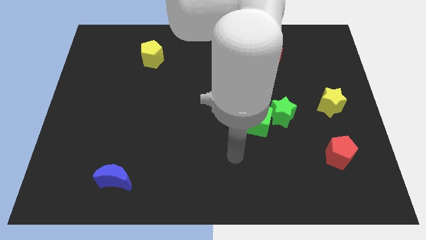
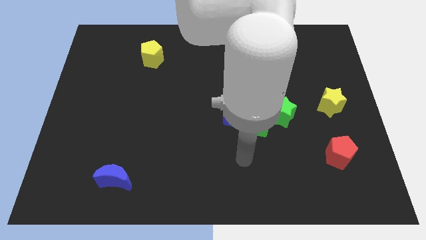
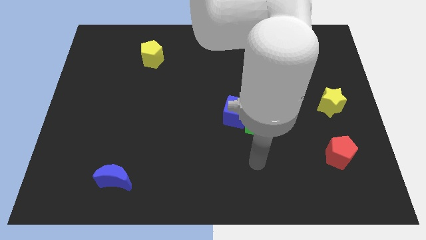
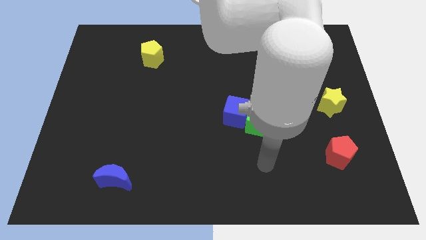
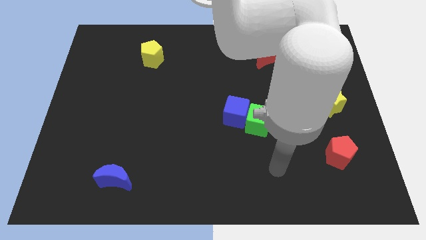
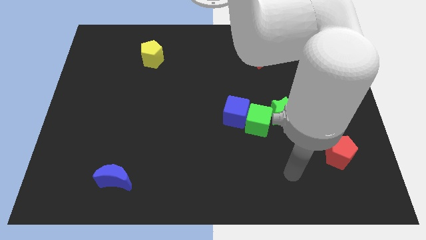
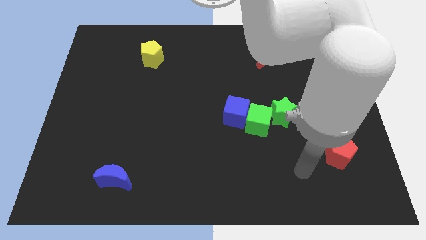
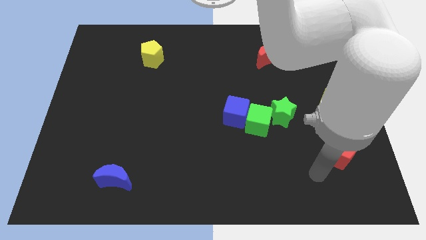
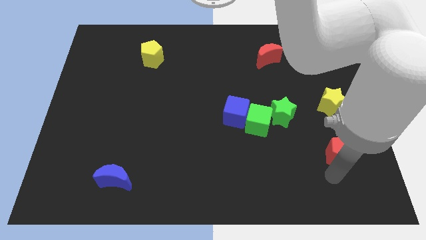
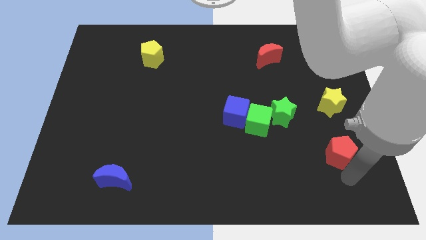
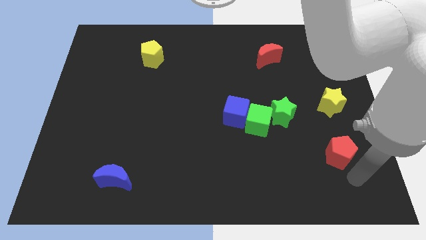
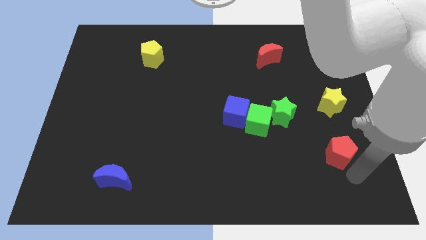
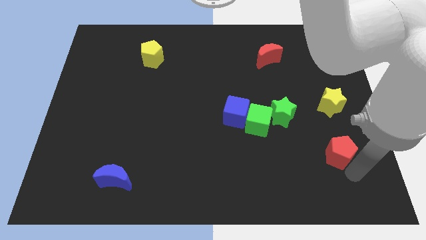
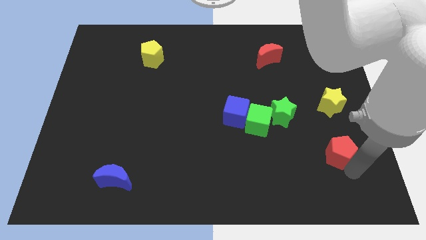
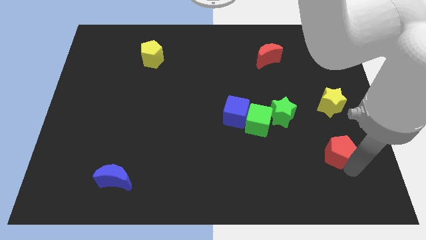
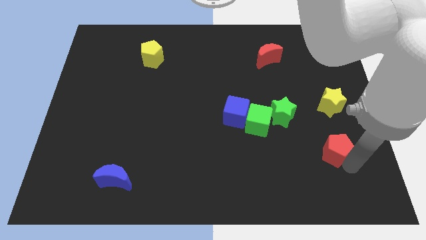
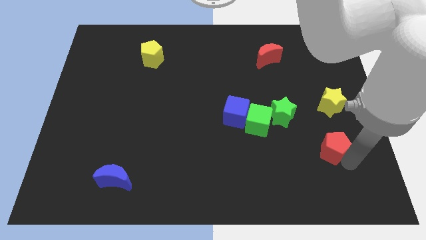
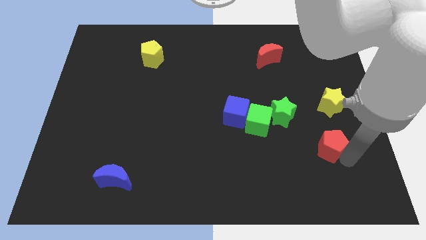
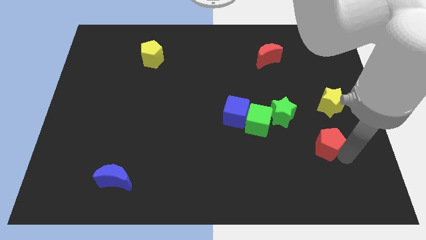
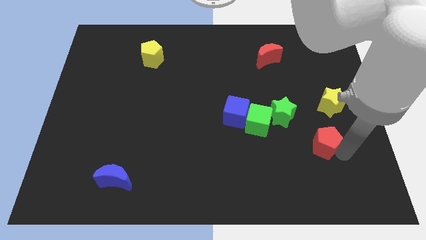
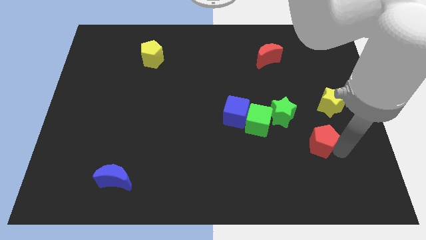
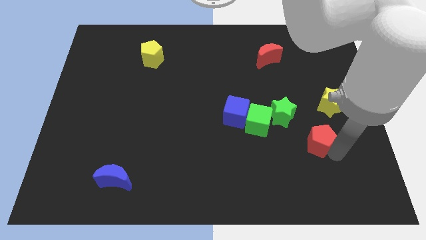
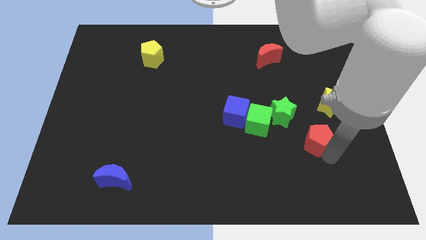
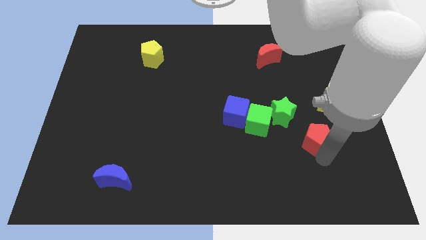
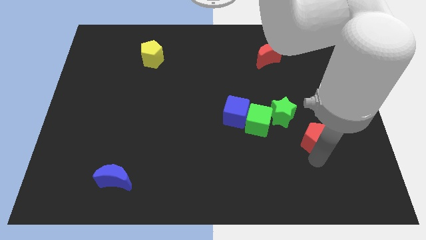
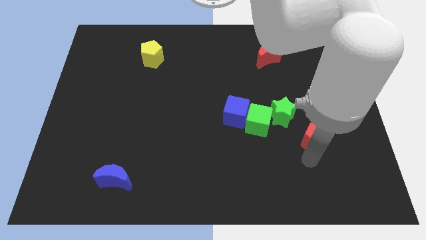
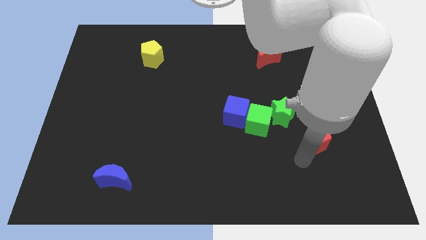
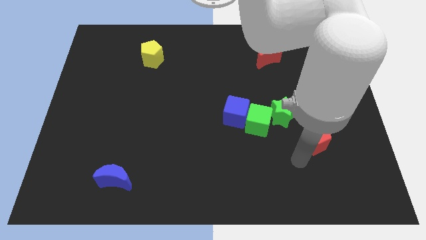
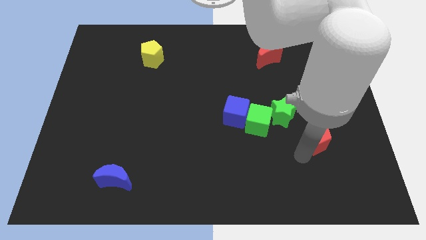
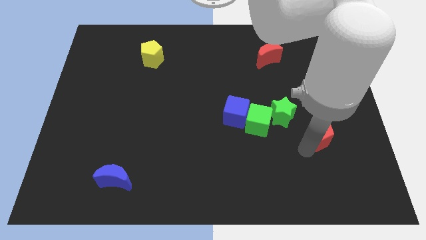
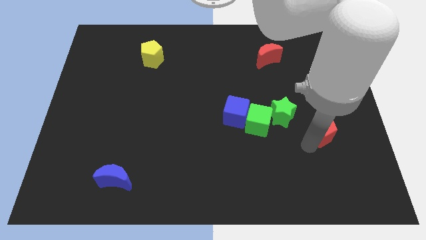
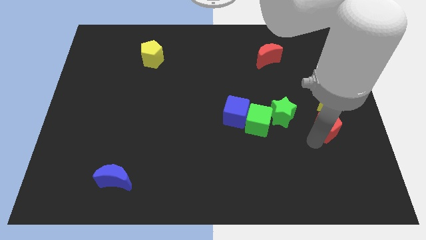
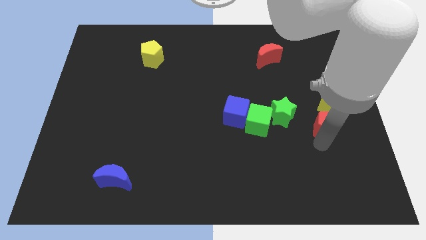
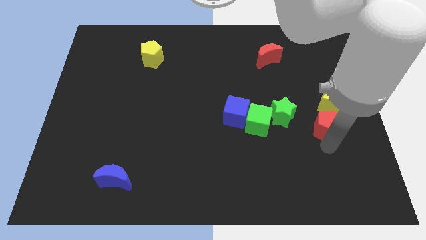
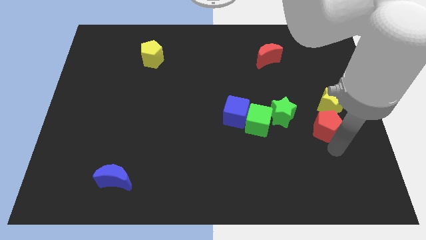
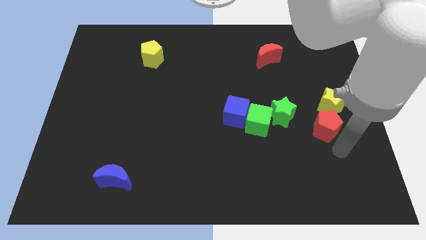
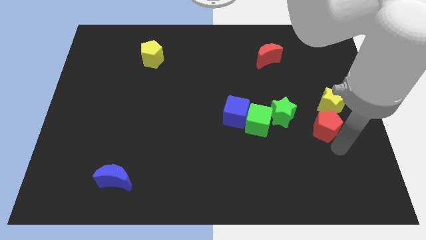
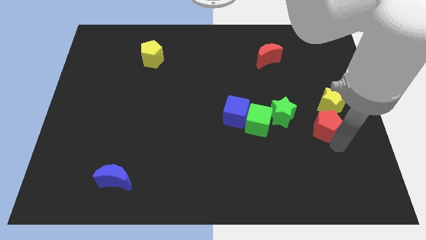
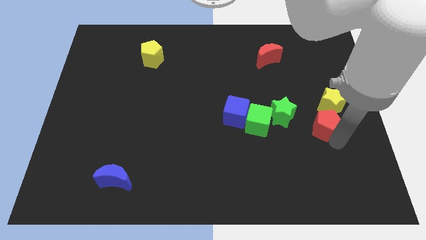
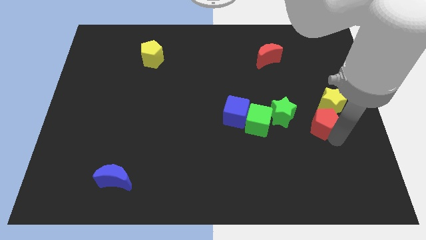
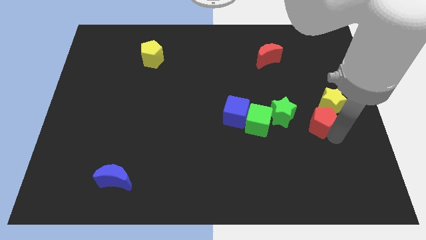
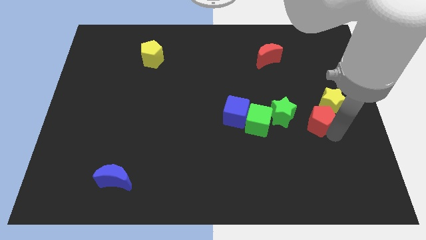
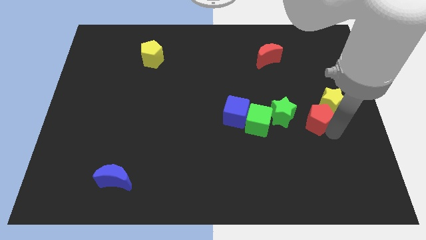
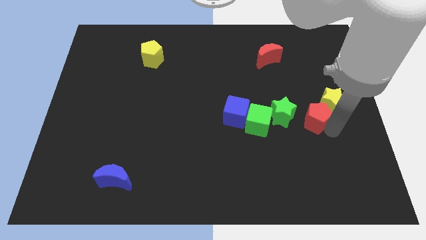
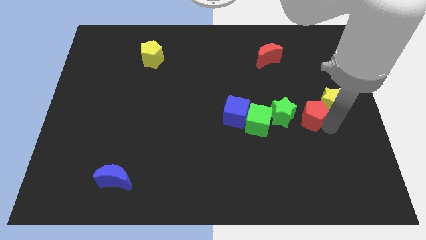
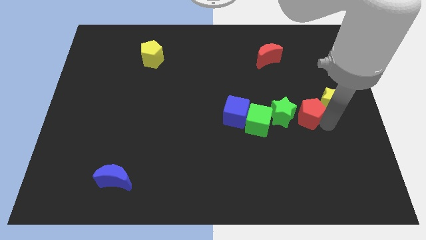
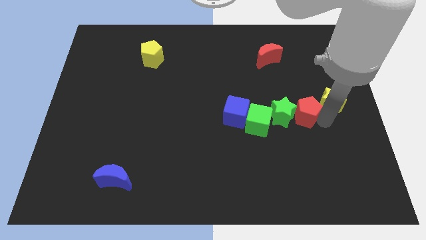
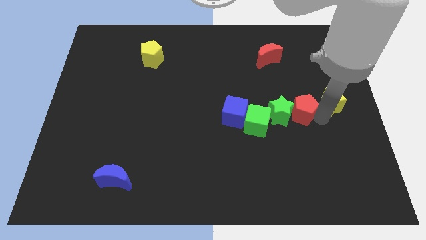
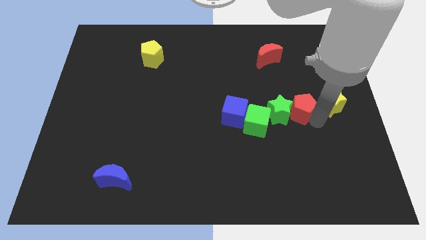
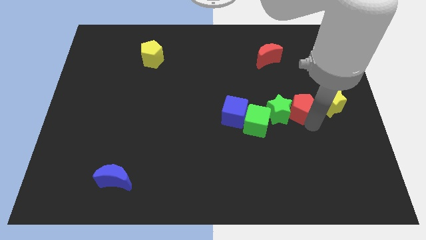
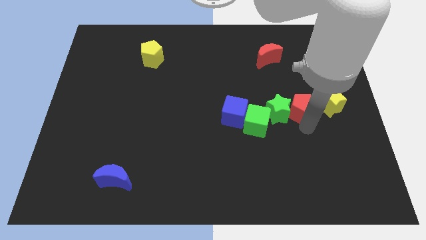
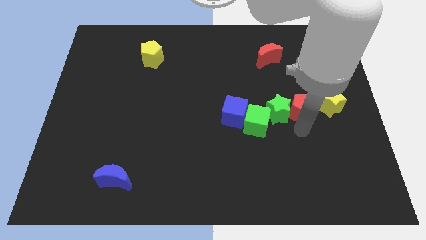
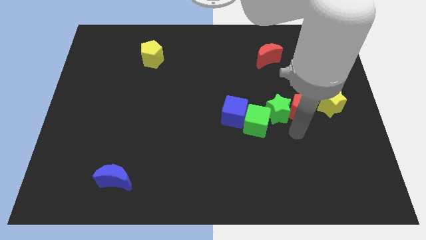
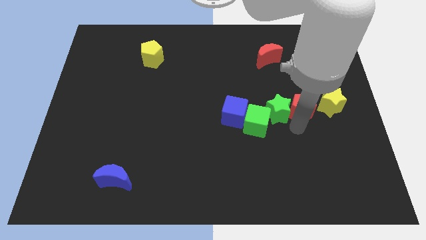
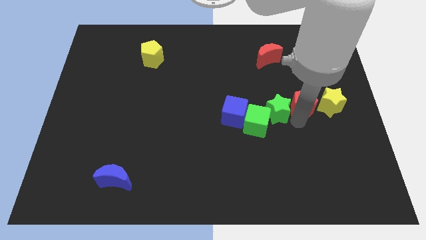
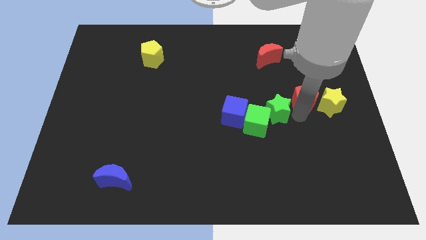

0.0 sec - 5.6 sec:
push the red pentagon diagonally up and to the left of the yellow star

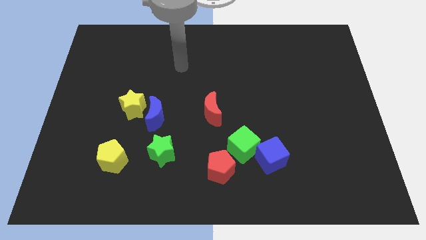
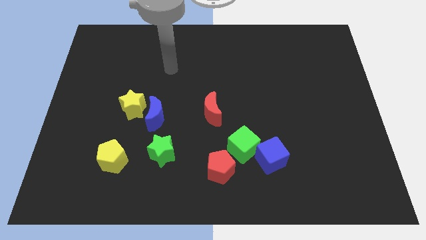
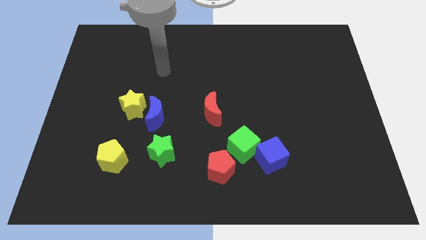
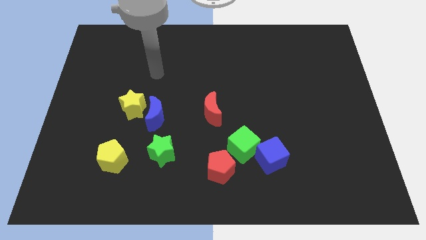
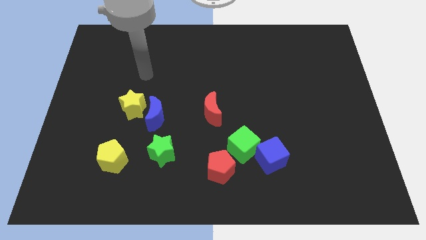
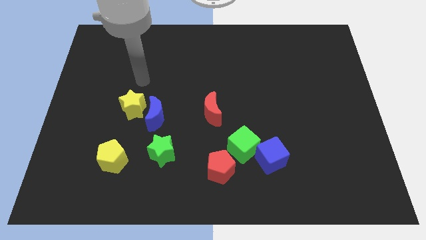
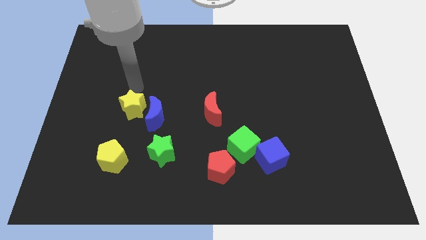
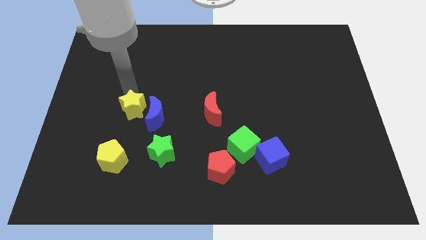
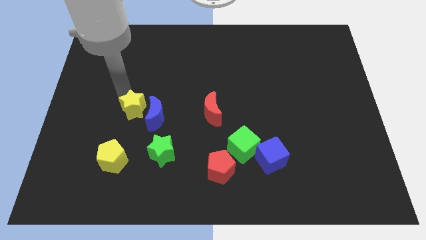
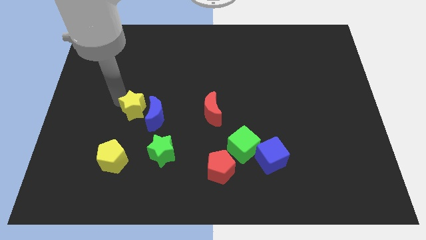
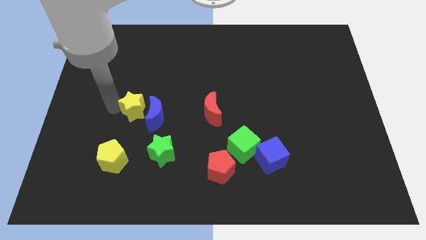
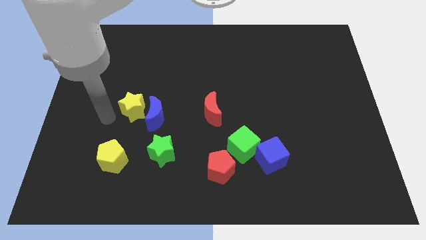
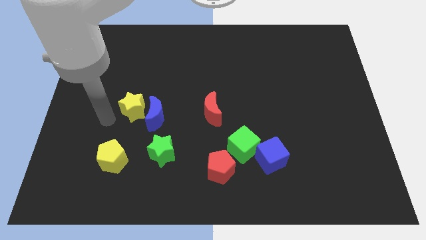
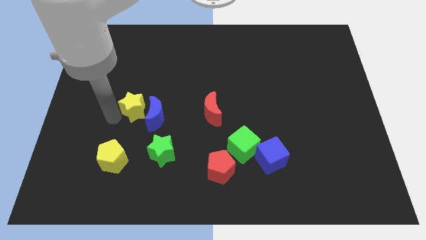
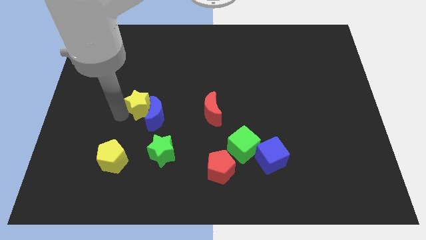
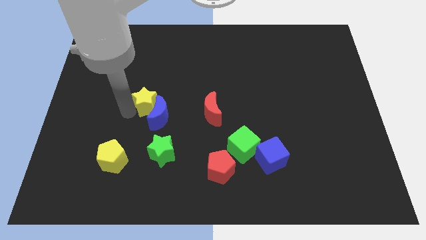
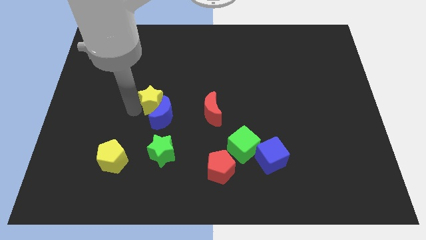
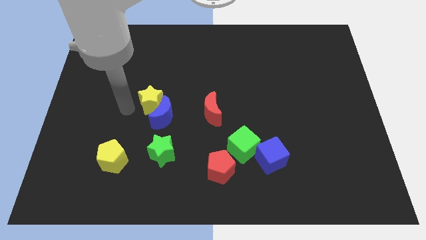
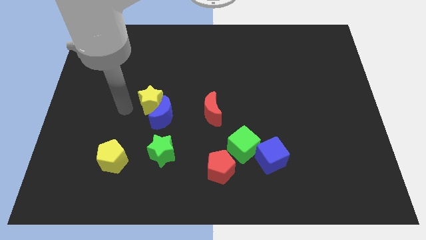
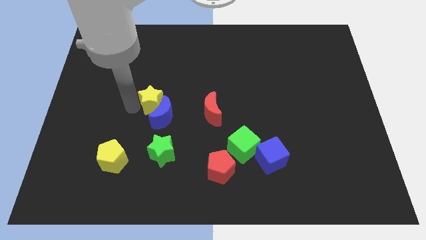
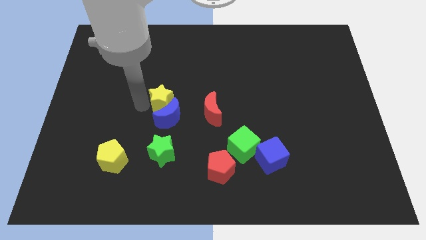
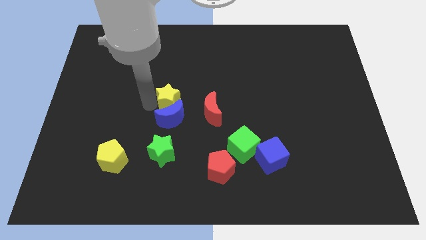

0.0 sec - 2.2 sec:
slide the yellow star to the top left of the red moon
